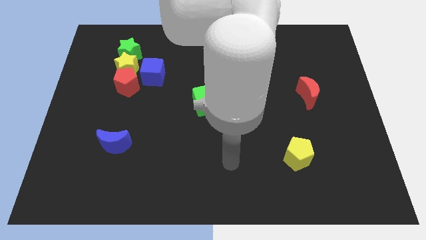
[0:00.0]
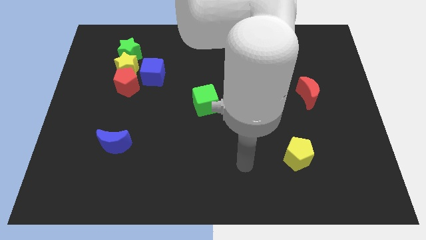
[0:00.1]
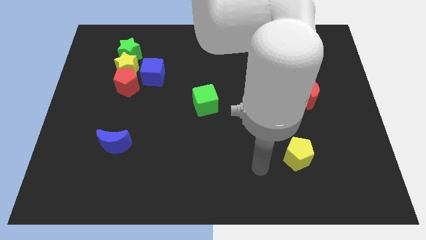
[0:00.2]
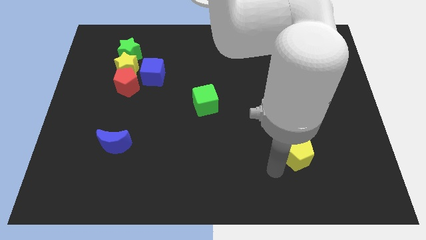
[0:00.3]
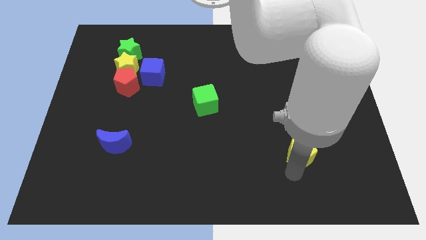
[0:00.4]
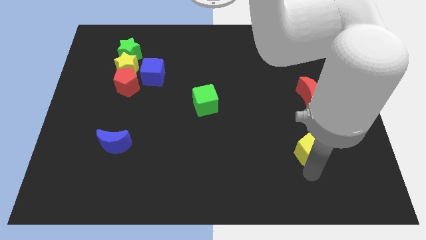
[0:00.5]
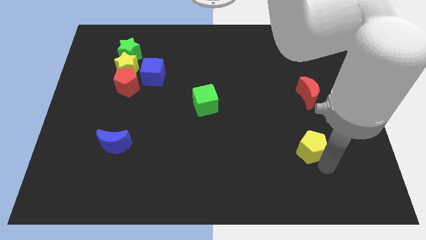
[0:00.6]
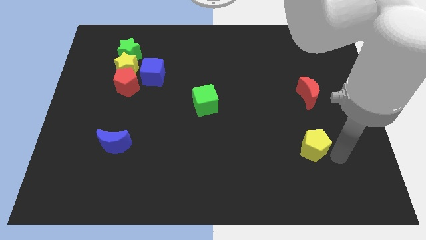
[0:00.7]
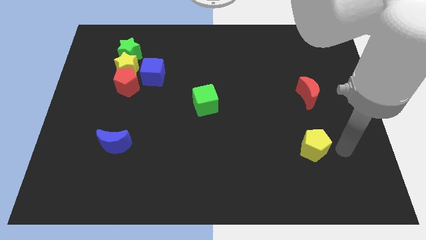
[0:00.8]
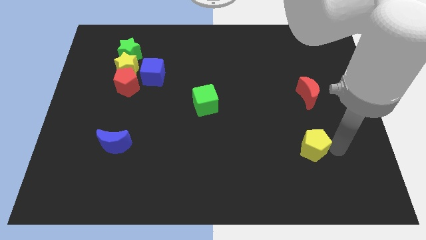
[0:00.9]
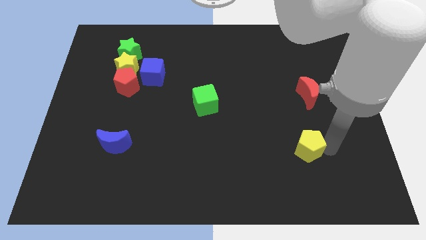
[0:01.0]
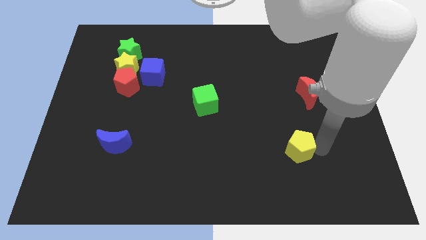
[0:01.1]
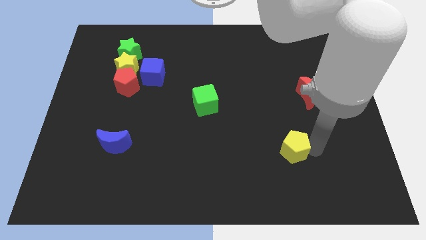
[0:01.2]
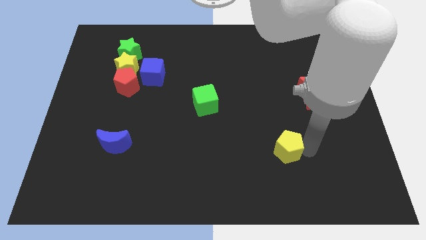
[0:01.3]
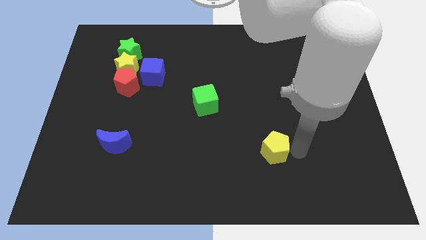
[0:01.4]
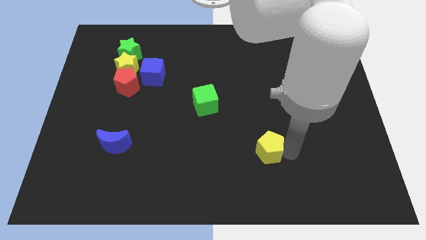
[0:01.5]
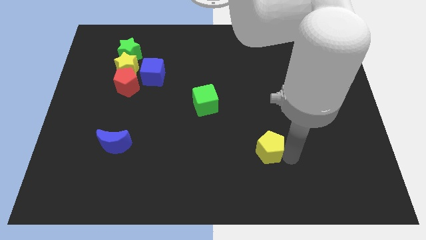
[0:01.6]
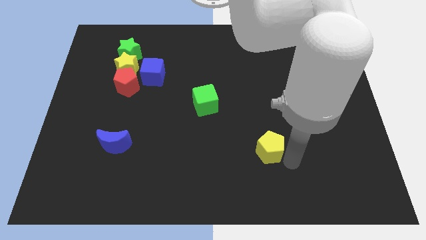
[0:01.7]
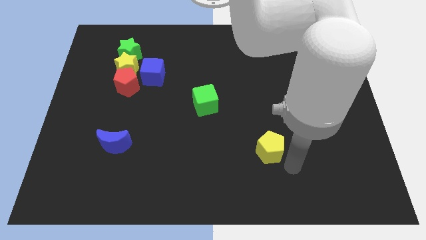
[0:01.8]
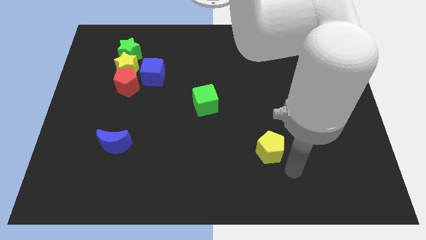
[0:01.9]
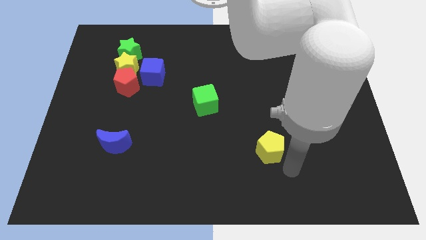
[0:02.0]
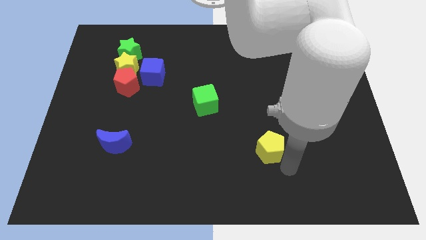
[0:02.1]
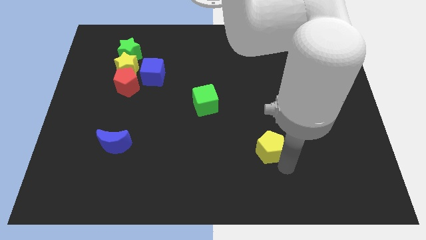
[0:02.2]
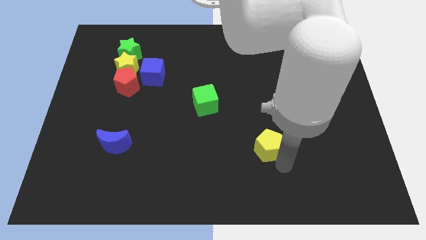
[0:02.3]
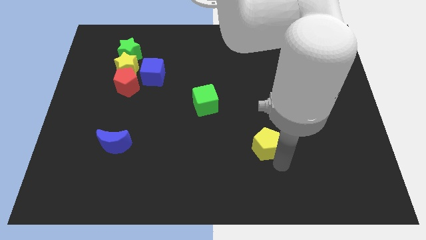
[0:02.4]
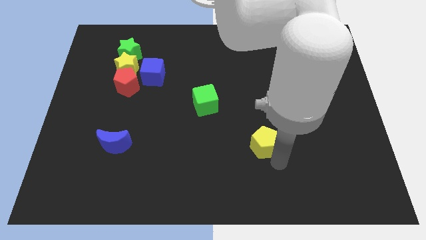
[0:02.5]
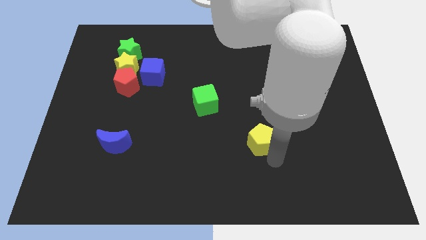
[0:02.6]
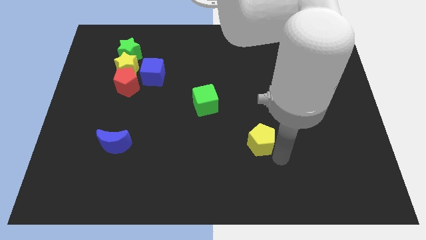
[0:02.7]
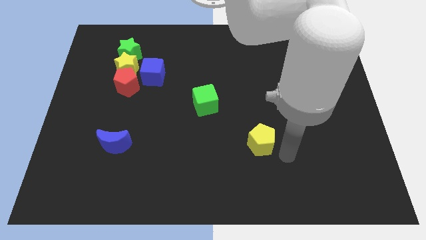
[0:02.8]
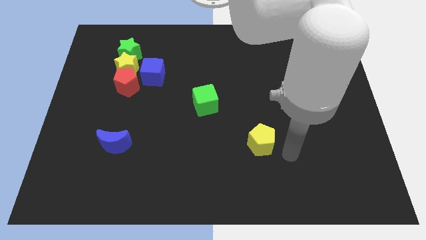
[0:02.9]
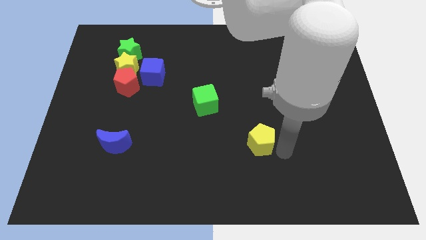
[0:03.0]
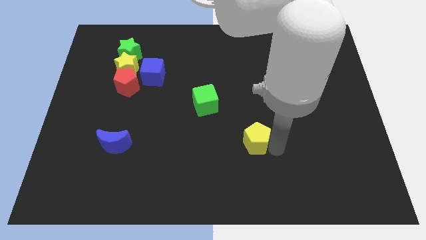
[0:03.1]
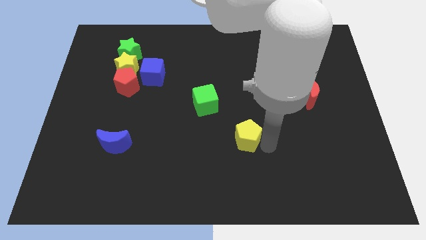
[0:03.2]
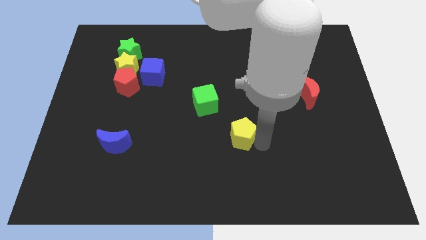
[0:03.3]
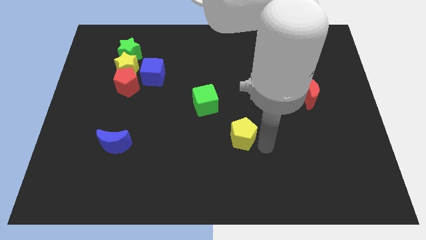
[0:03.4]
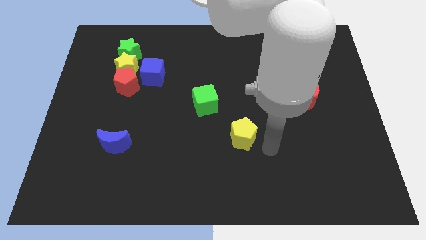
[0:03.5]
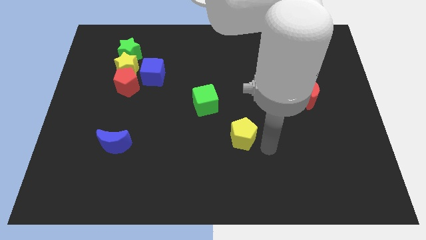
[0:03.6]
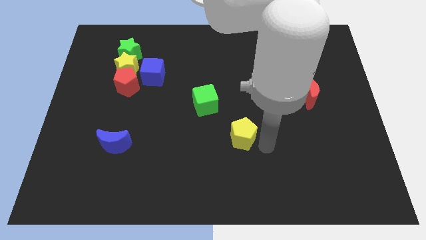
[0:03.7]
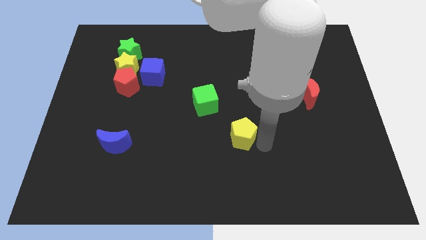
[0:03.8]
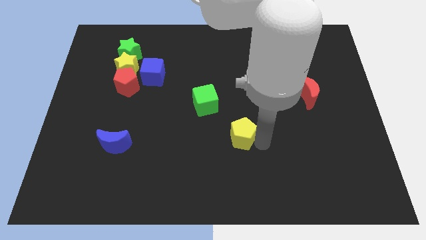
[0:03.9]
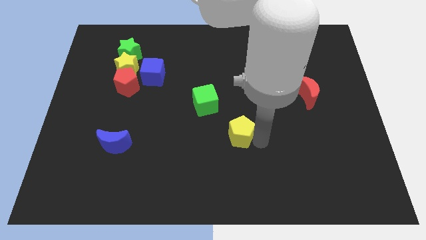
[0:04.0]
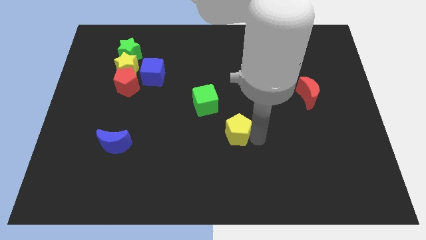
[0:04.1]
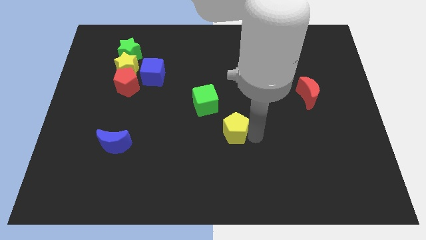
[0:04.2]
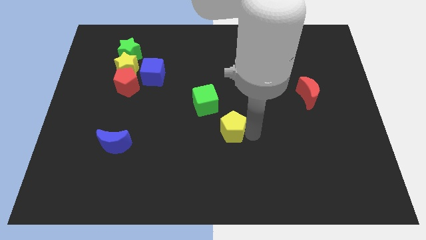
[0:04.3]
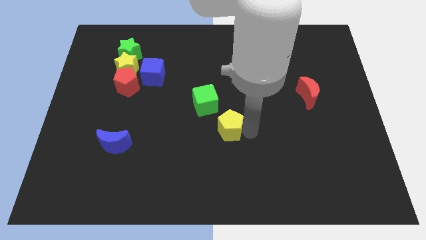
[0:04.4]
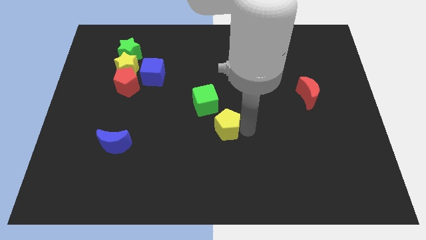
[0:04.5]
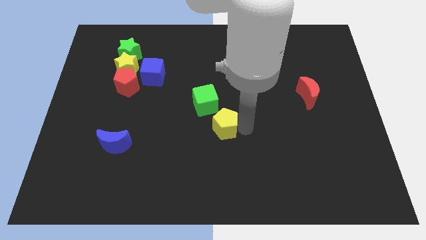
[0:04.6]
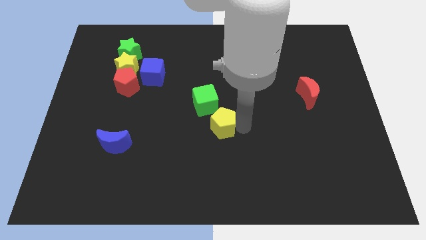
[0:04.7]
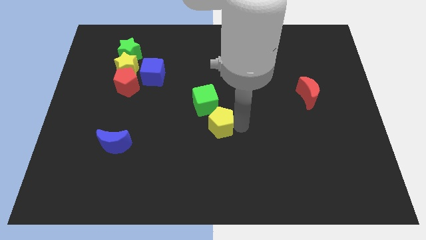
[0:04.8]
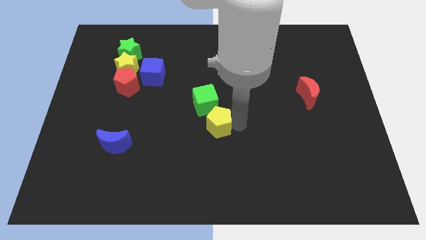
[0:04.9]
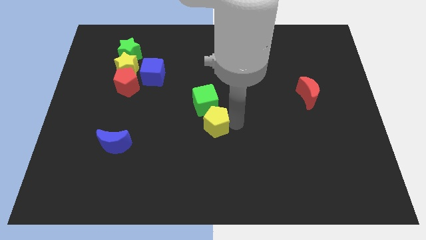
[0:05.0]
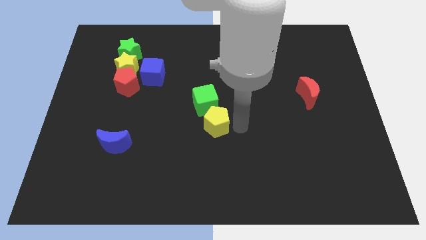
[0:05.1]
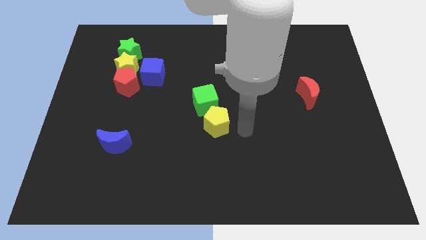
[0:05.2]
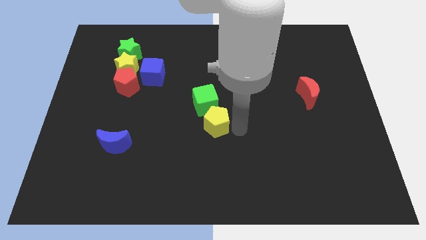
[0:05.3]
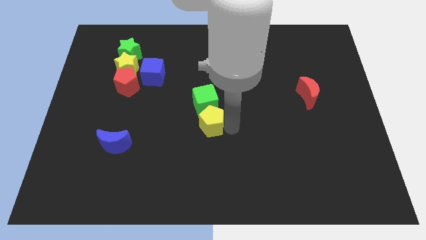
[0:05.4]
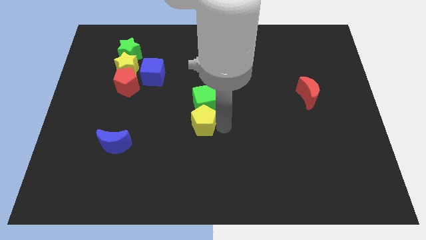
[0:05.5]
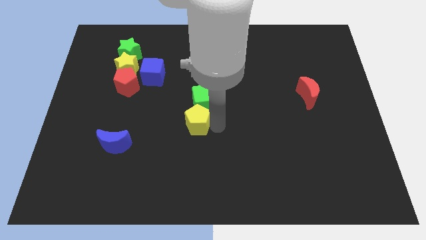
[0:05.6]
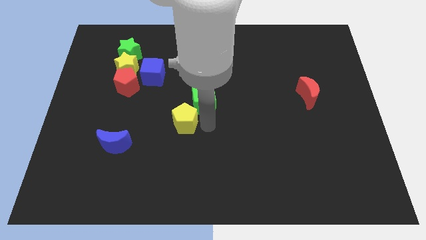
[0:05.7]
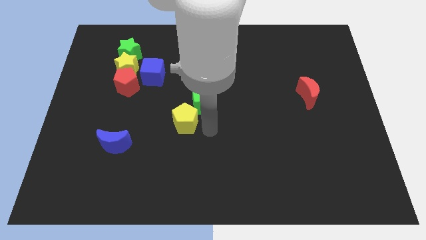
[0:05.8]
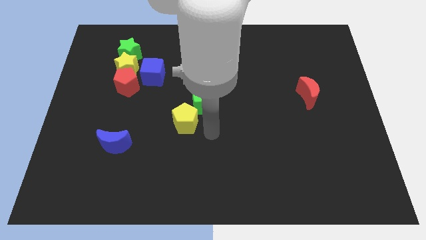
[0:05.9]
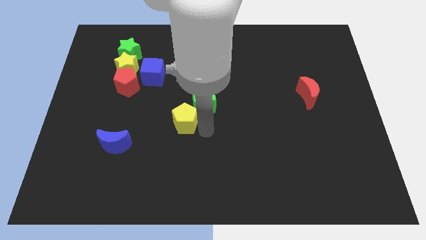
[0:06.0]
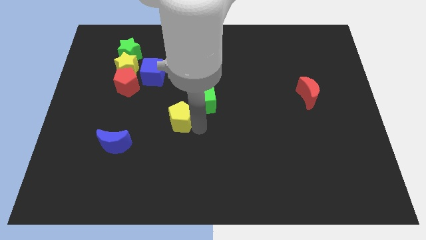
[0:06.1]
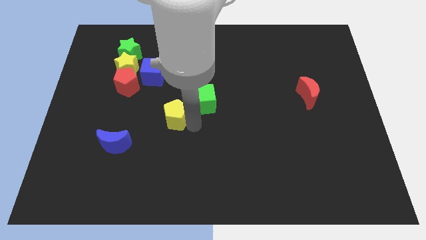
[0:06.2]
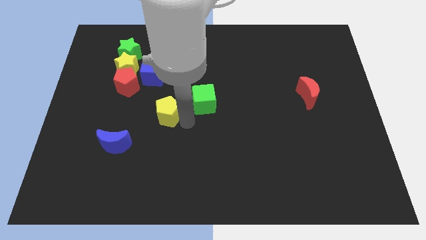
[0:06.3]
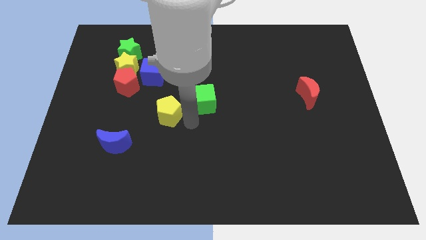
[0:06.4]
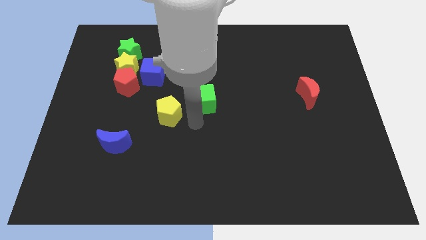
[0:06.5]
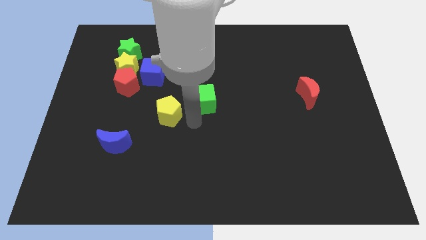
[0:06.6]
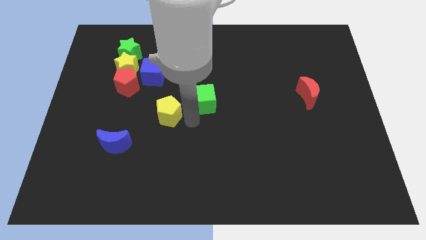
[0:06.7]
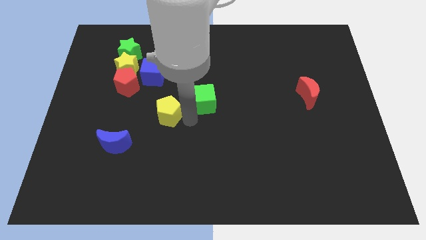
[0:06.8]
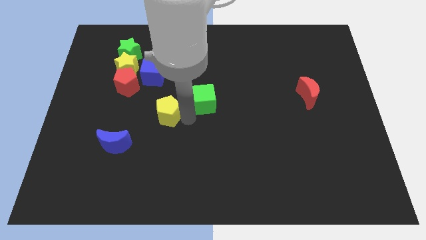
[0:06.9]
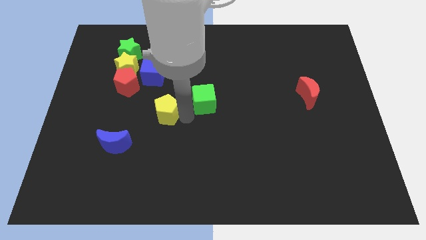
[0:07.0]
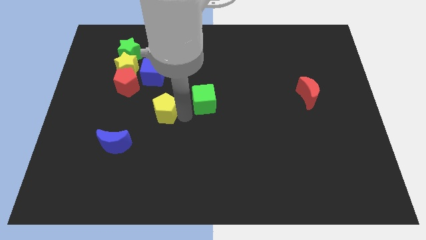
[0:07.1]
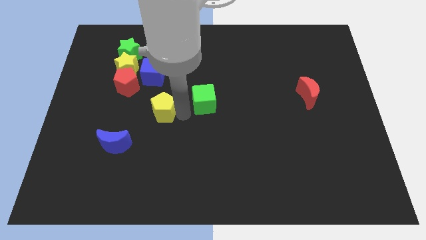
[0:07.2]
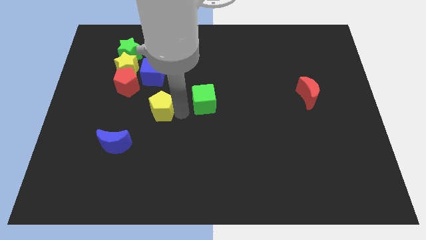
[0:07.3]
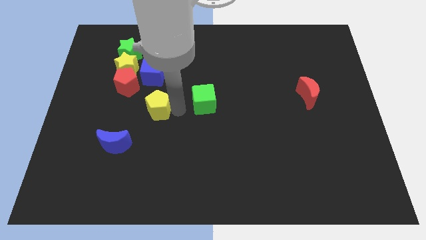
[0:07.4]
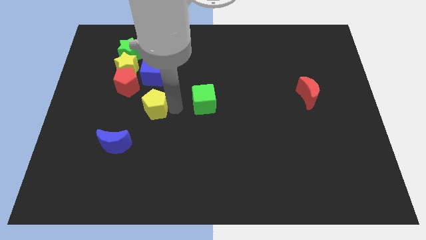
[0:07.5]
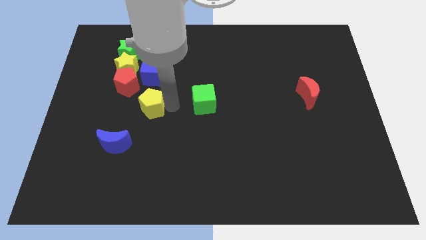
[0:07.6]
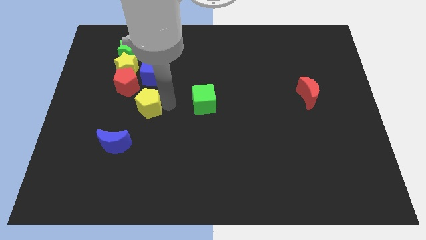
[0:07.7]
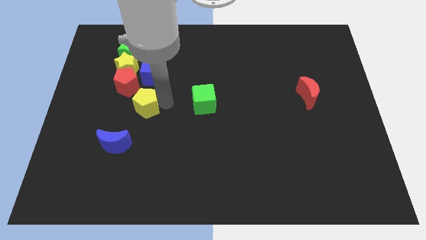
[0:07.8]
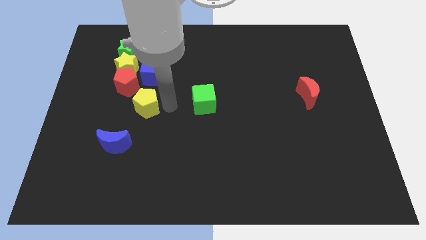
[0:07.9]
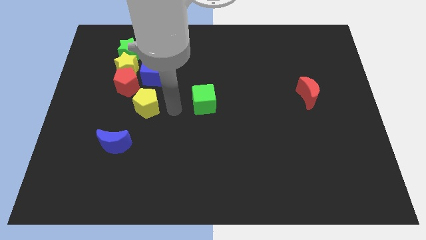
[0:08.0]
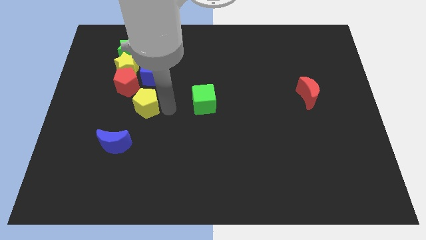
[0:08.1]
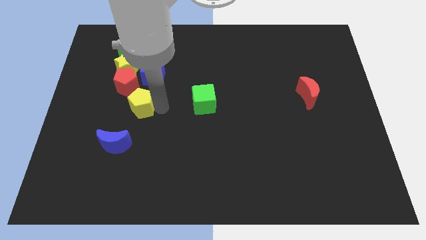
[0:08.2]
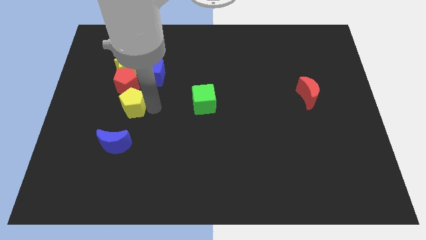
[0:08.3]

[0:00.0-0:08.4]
push the yellow pentagon below the yellow star
